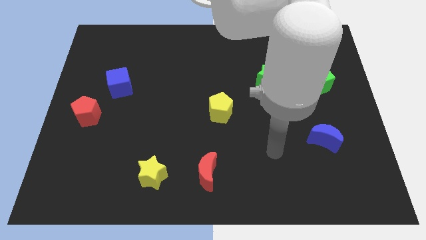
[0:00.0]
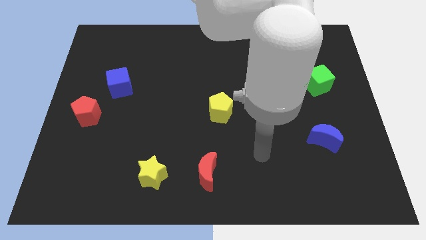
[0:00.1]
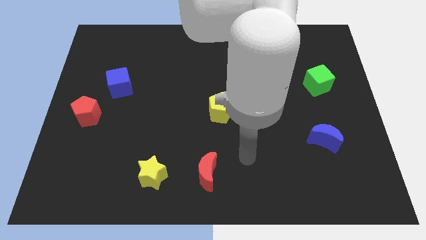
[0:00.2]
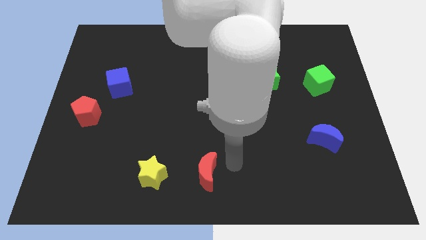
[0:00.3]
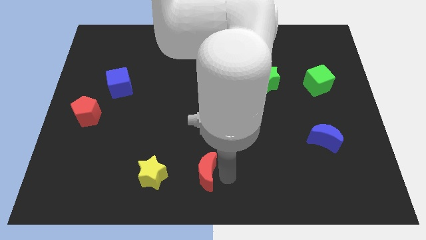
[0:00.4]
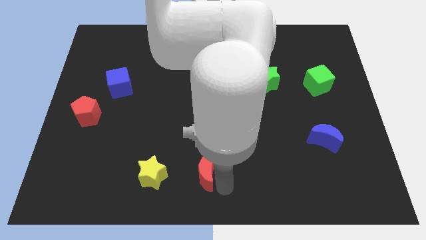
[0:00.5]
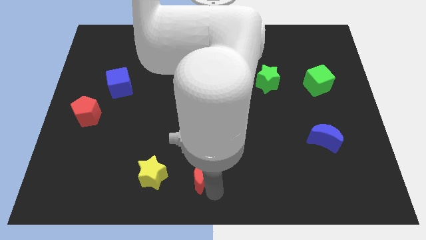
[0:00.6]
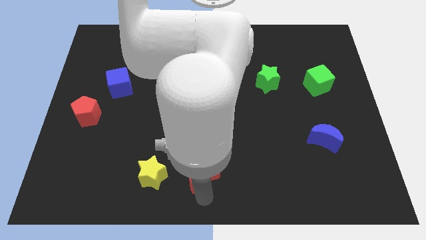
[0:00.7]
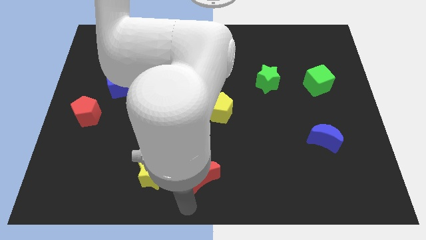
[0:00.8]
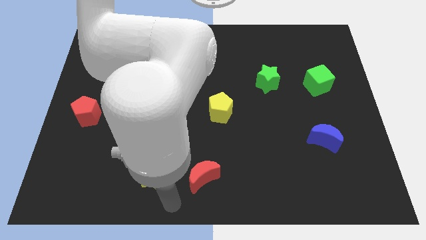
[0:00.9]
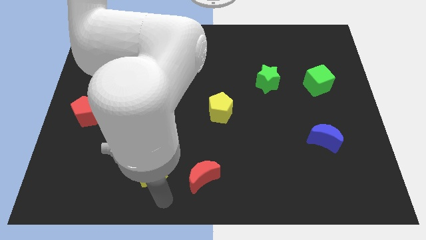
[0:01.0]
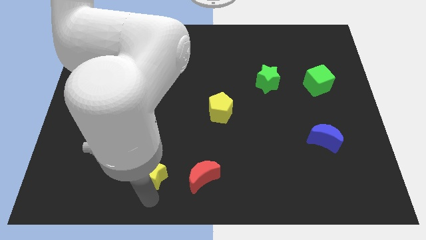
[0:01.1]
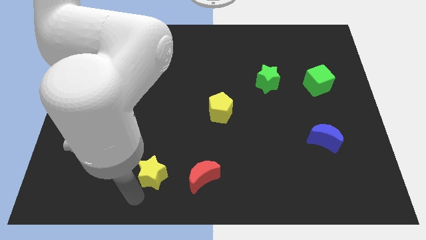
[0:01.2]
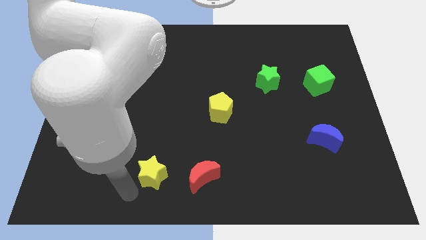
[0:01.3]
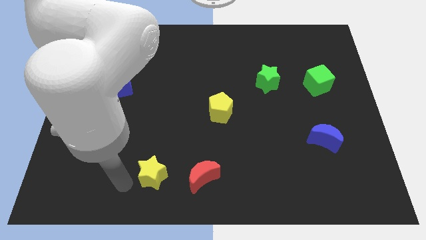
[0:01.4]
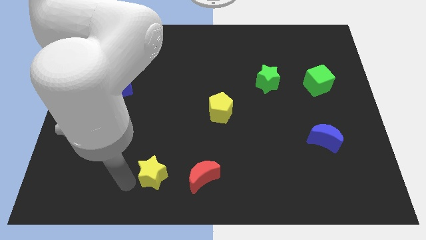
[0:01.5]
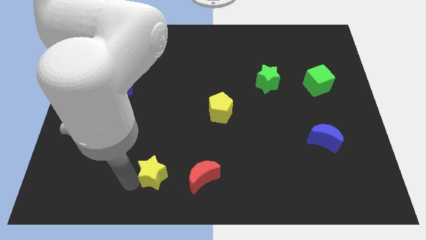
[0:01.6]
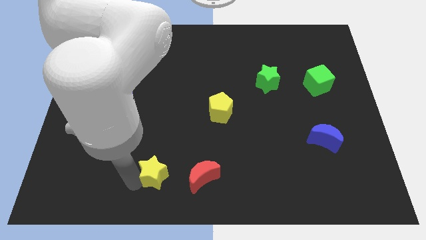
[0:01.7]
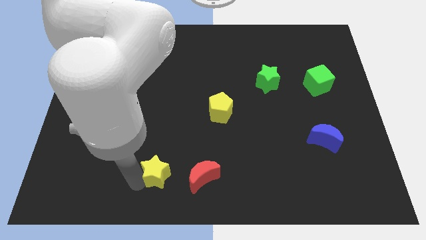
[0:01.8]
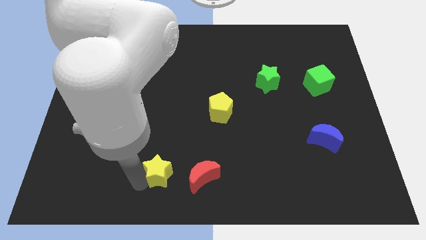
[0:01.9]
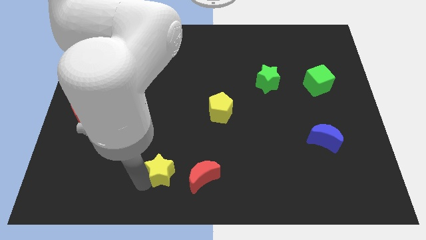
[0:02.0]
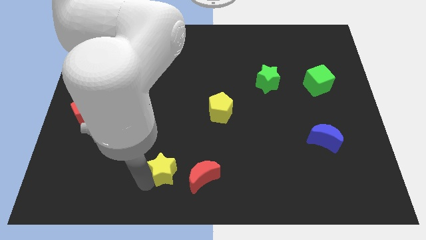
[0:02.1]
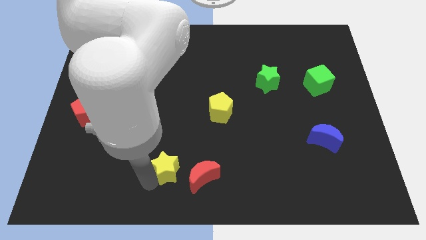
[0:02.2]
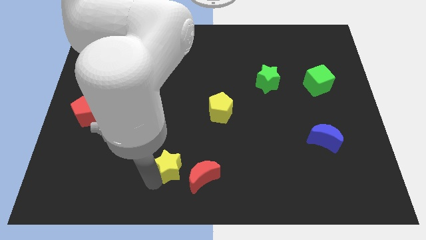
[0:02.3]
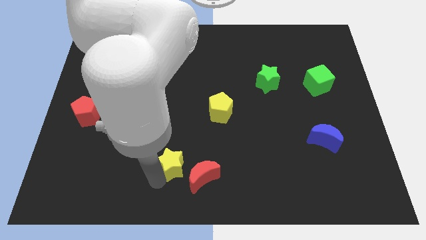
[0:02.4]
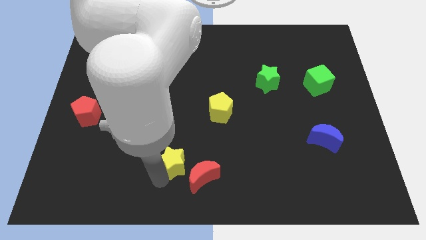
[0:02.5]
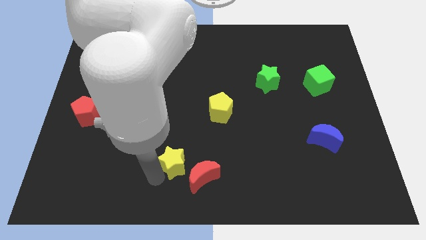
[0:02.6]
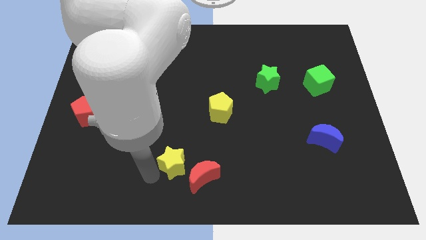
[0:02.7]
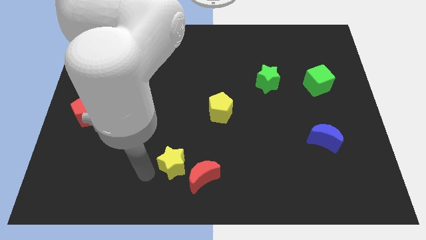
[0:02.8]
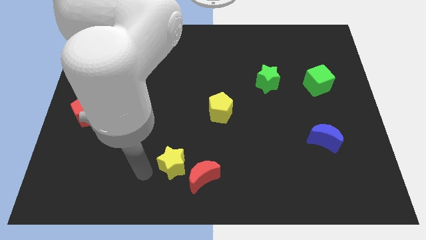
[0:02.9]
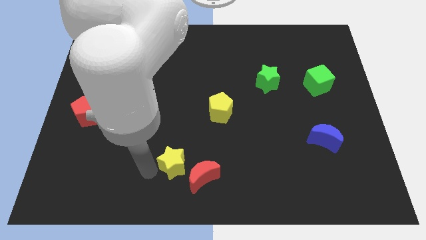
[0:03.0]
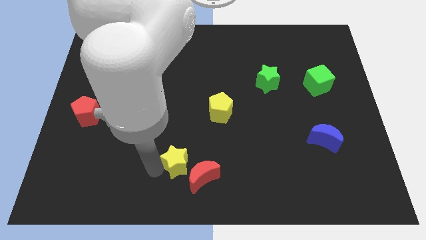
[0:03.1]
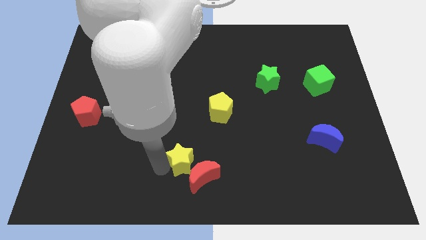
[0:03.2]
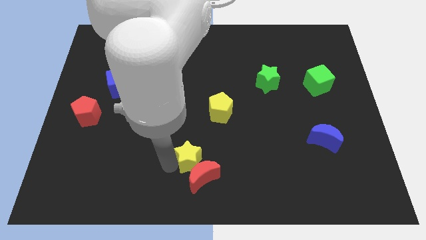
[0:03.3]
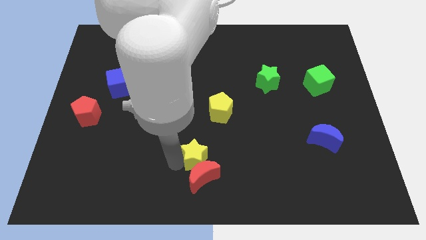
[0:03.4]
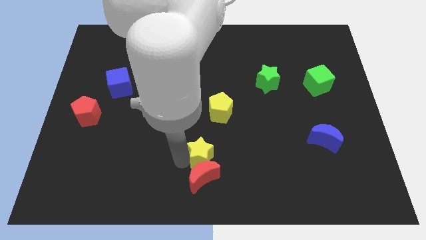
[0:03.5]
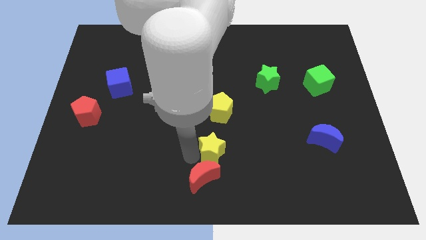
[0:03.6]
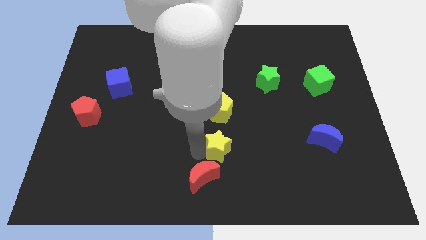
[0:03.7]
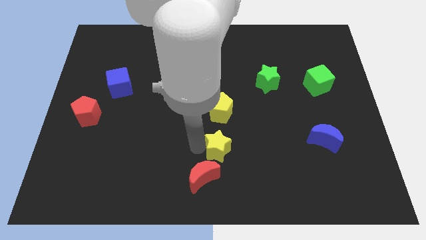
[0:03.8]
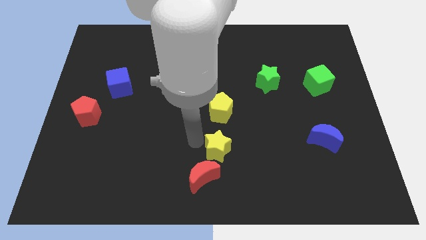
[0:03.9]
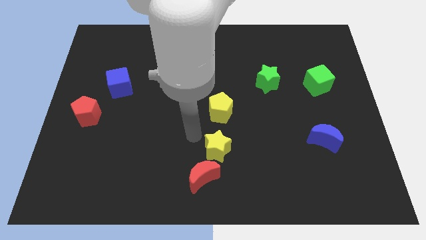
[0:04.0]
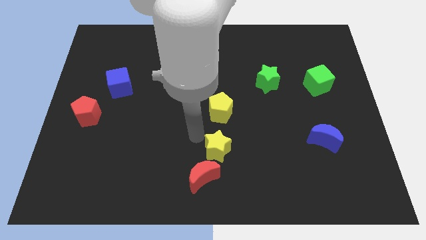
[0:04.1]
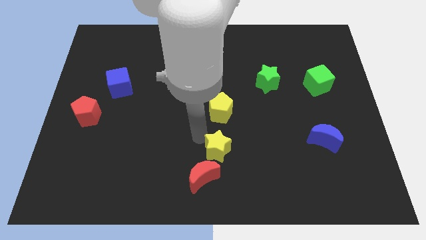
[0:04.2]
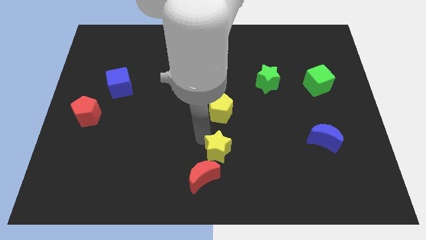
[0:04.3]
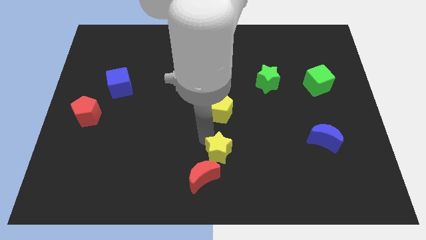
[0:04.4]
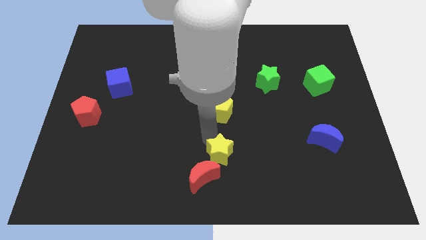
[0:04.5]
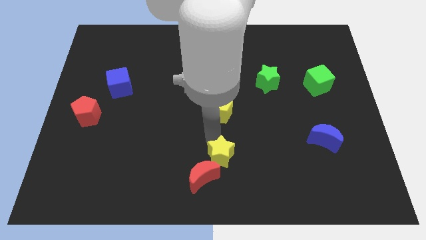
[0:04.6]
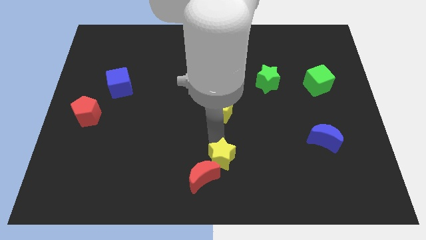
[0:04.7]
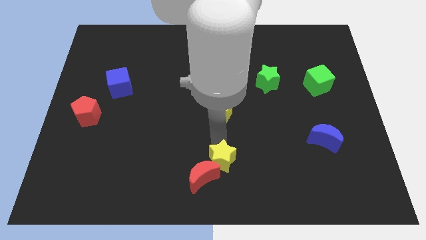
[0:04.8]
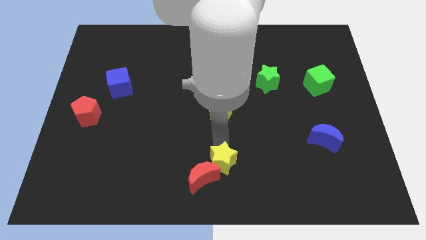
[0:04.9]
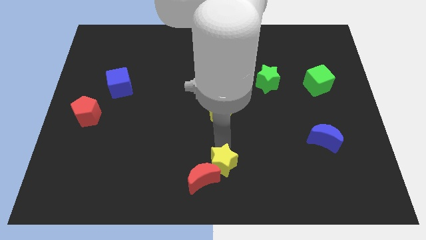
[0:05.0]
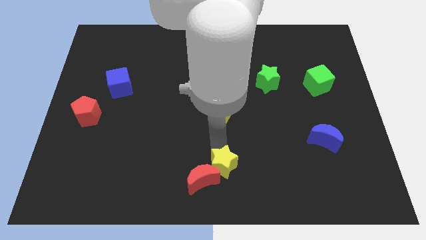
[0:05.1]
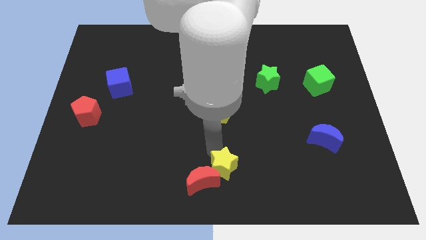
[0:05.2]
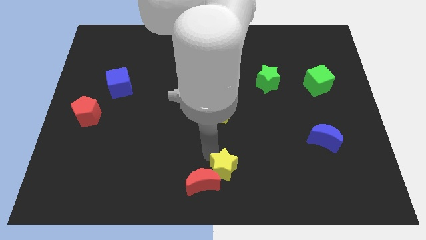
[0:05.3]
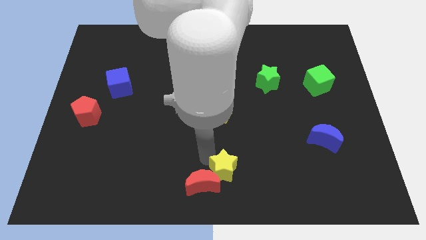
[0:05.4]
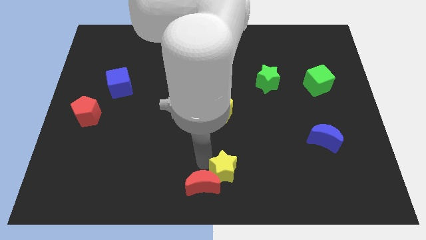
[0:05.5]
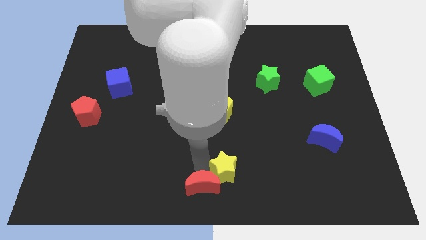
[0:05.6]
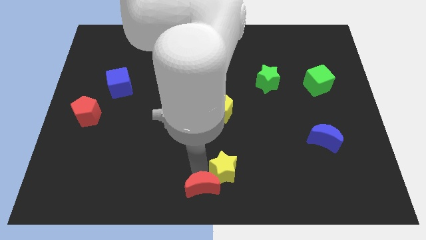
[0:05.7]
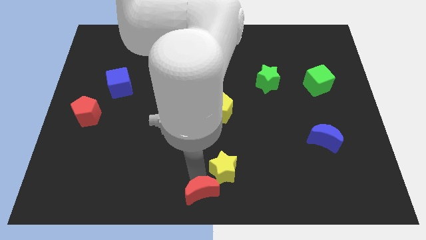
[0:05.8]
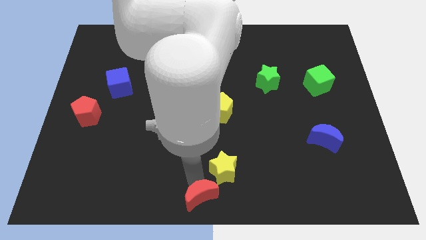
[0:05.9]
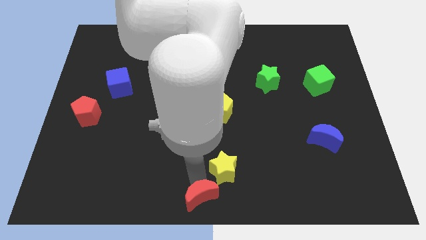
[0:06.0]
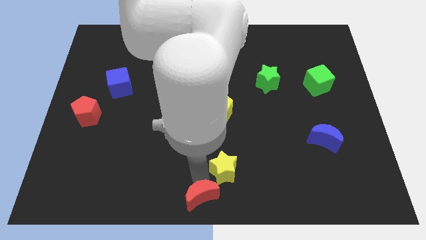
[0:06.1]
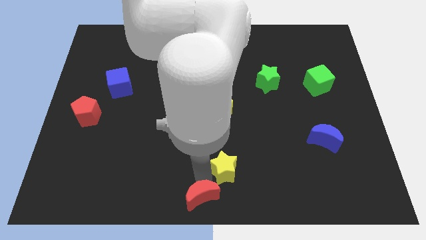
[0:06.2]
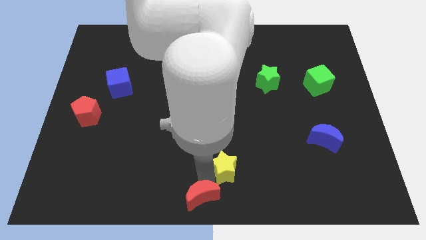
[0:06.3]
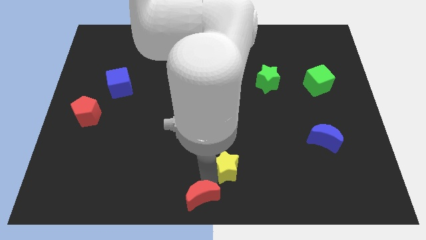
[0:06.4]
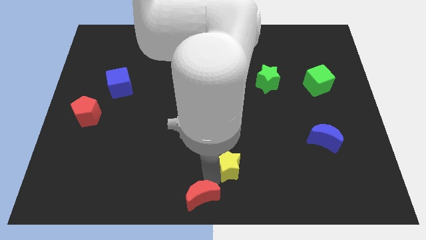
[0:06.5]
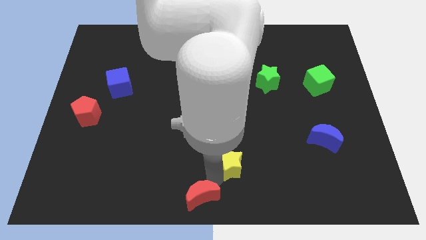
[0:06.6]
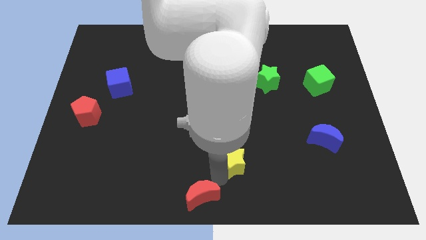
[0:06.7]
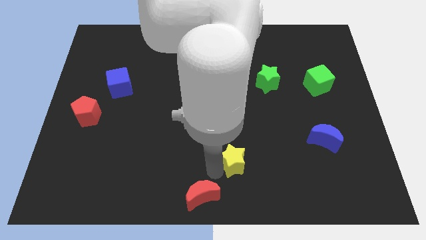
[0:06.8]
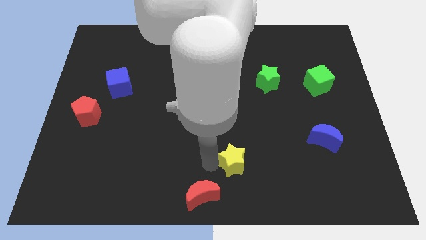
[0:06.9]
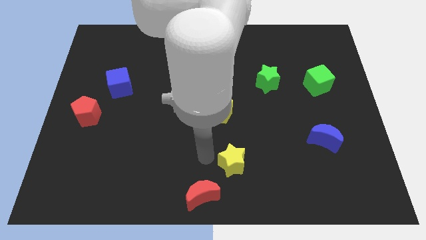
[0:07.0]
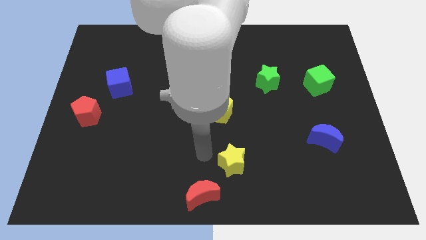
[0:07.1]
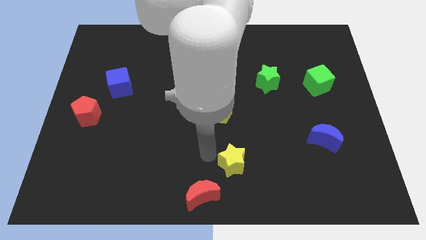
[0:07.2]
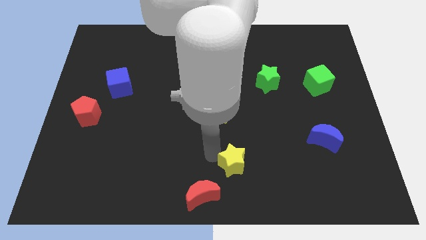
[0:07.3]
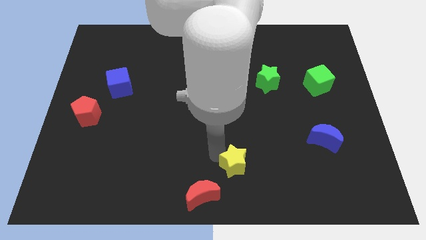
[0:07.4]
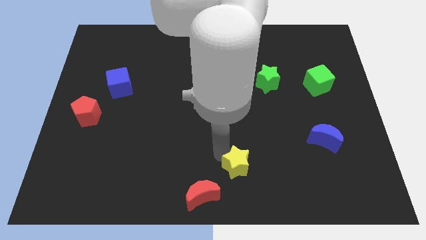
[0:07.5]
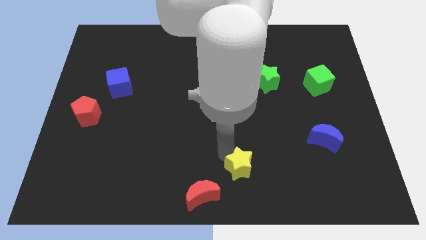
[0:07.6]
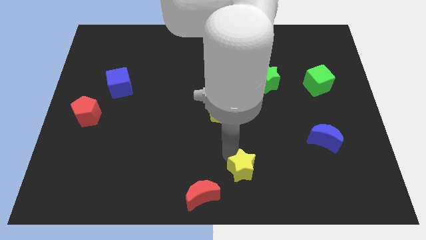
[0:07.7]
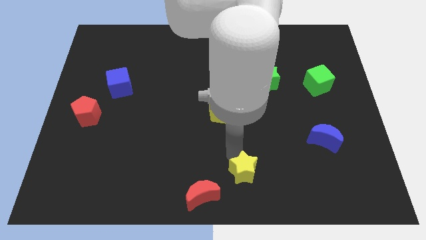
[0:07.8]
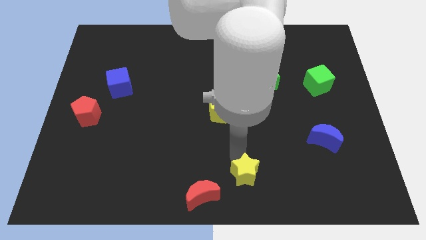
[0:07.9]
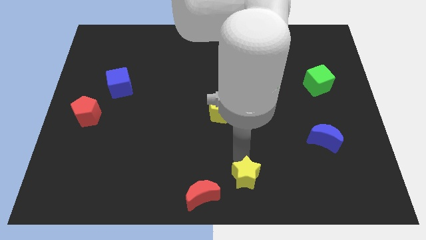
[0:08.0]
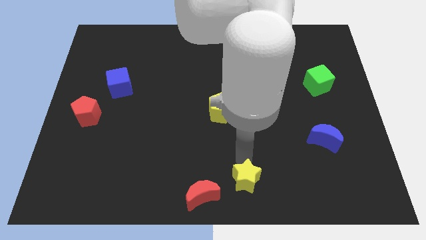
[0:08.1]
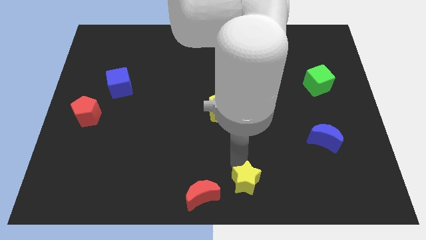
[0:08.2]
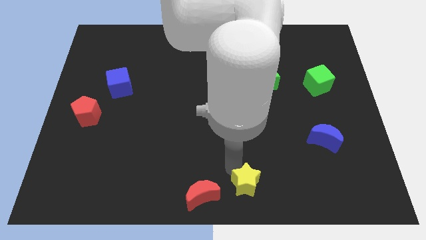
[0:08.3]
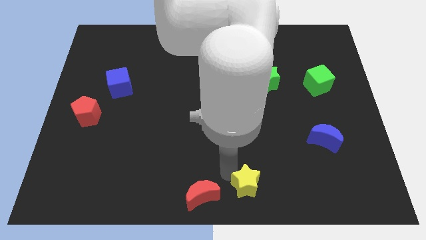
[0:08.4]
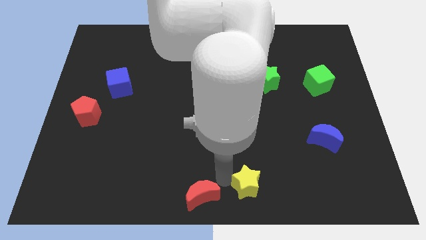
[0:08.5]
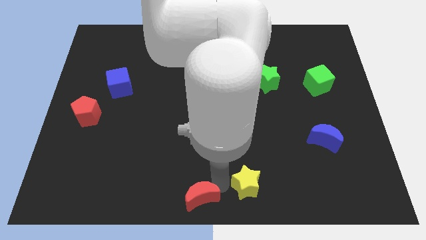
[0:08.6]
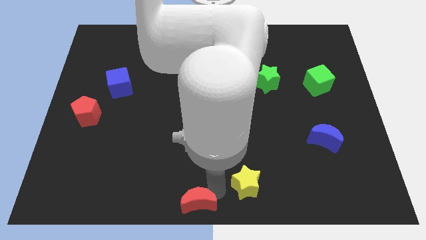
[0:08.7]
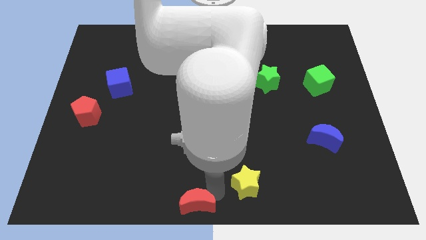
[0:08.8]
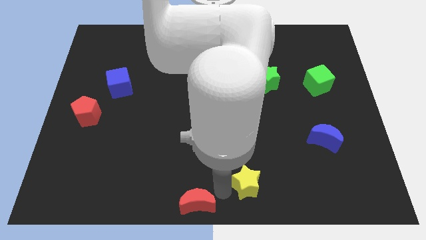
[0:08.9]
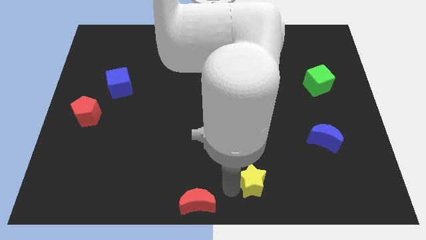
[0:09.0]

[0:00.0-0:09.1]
slide the yellow star to the right
